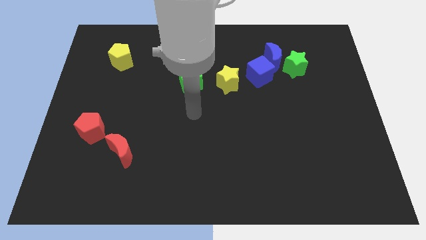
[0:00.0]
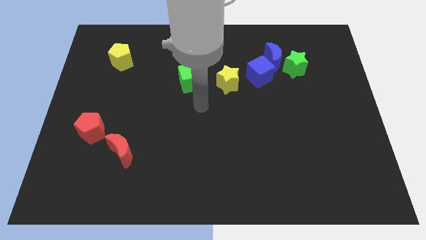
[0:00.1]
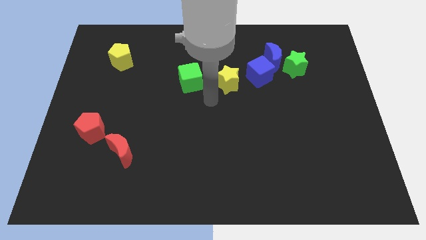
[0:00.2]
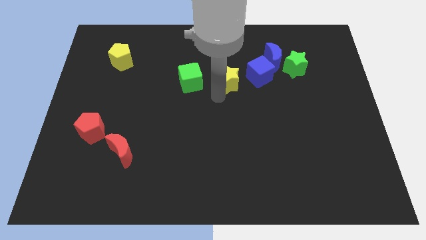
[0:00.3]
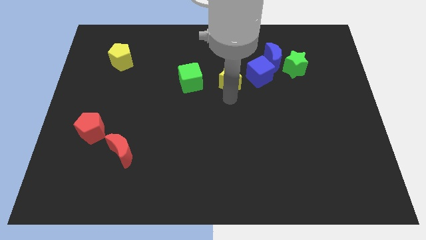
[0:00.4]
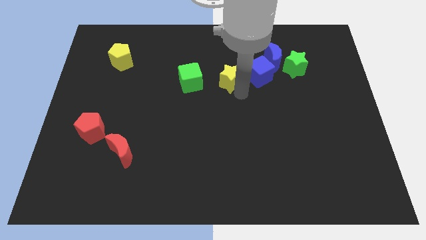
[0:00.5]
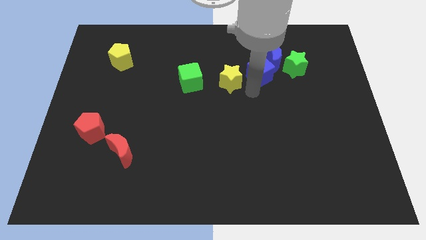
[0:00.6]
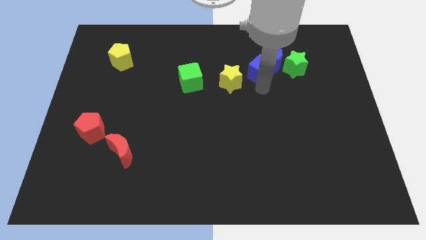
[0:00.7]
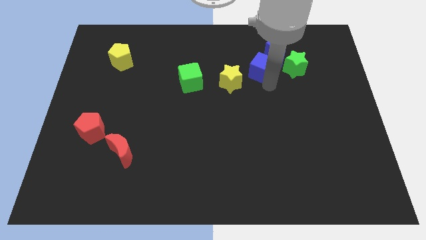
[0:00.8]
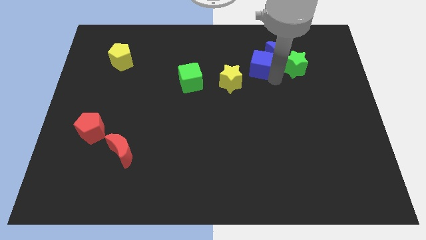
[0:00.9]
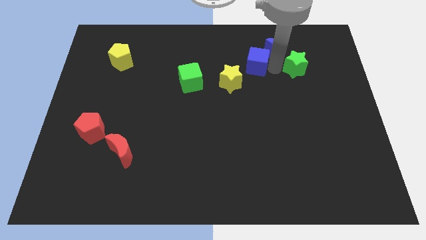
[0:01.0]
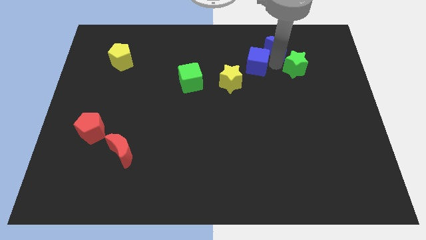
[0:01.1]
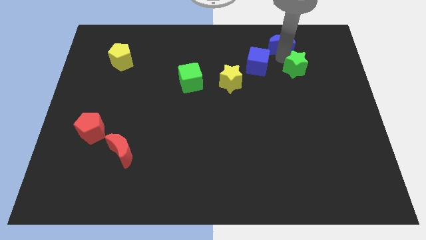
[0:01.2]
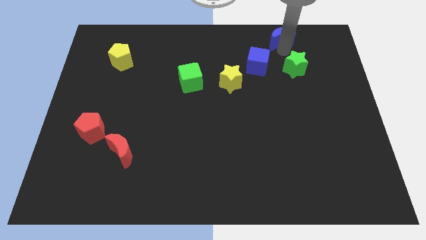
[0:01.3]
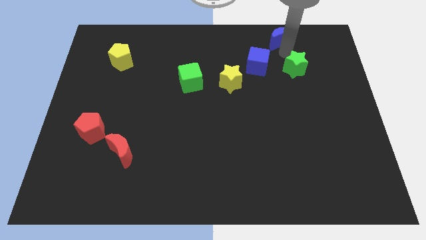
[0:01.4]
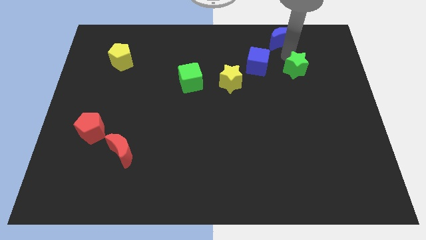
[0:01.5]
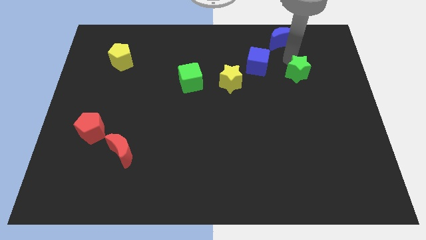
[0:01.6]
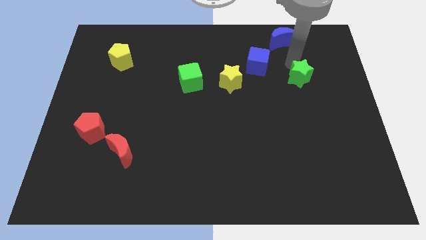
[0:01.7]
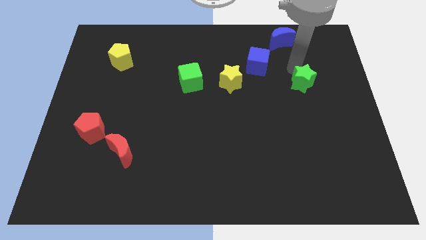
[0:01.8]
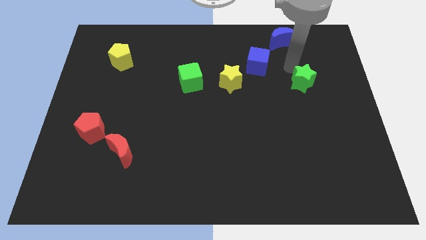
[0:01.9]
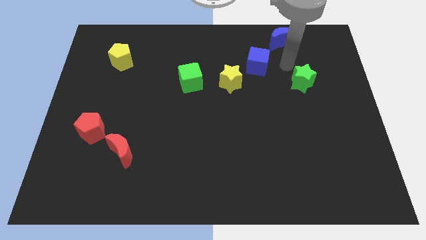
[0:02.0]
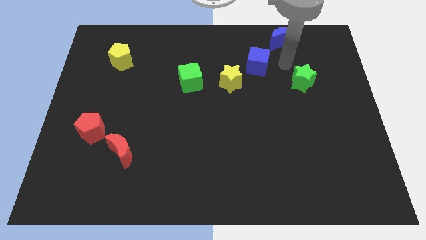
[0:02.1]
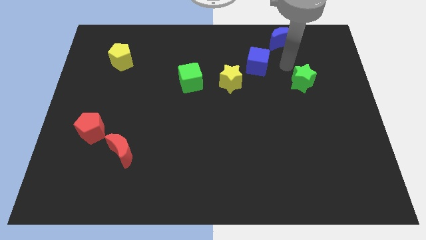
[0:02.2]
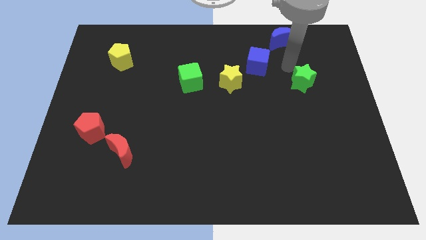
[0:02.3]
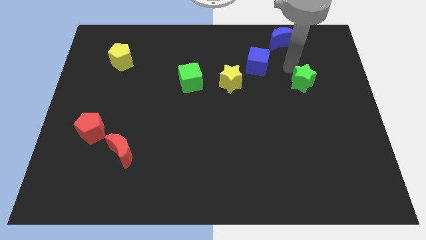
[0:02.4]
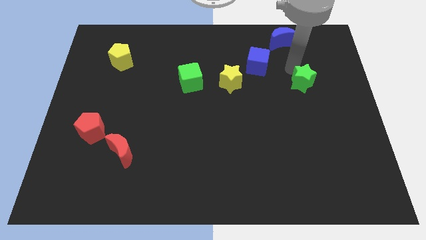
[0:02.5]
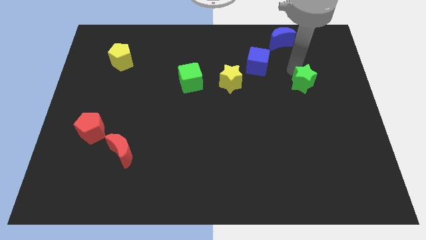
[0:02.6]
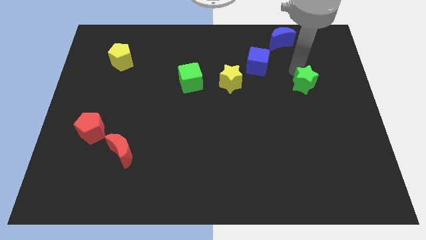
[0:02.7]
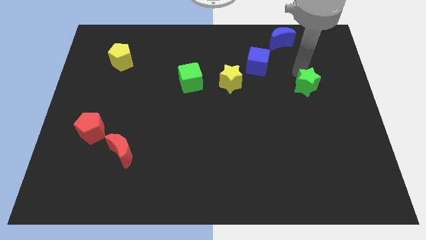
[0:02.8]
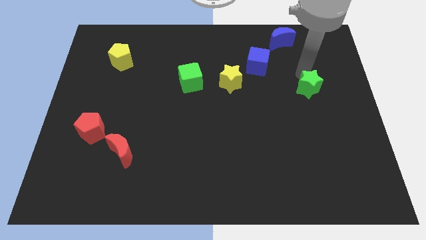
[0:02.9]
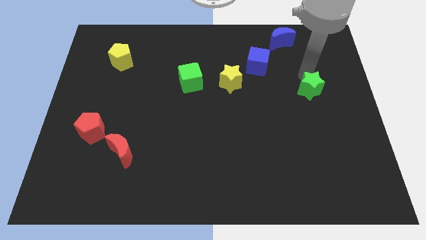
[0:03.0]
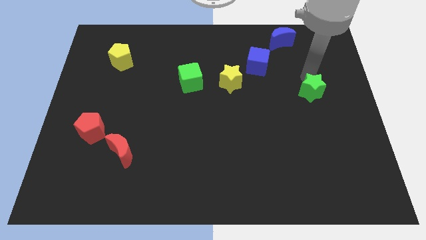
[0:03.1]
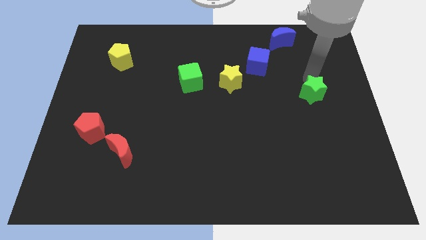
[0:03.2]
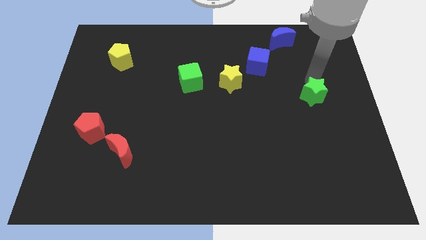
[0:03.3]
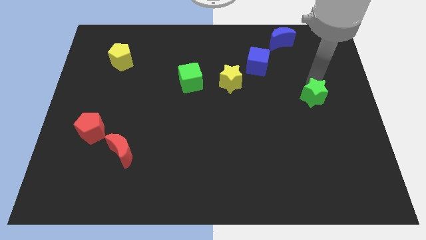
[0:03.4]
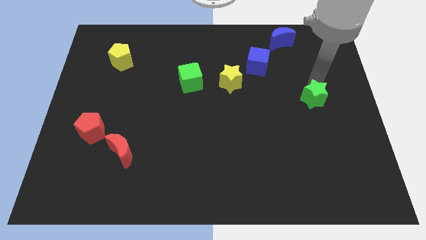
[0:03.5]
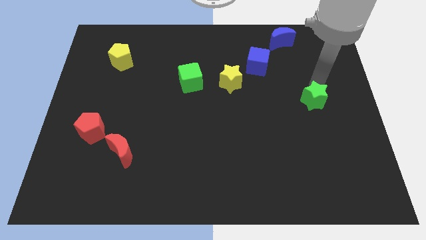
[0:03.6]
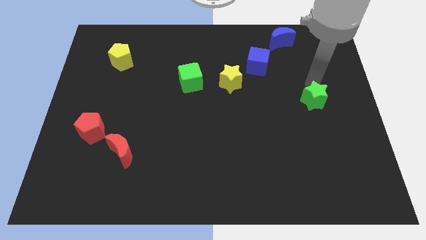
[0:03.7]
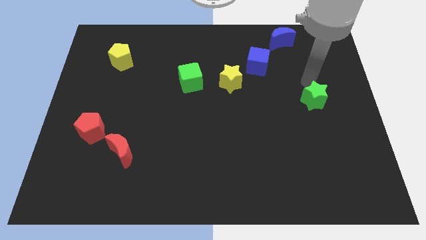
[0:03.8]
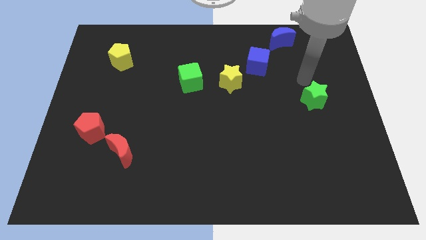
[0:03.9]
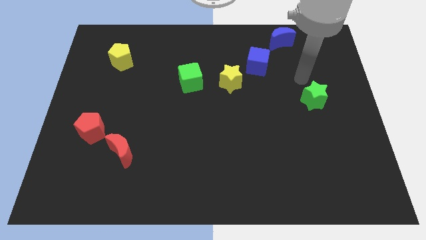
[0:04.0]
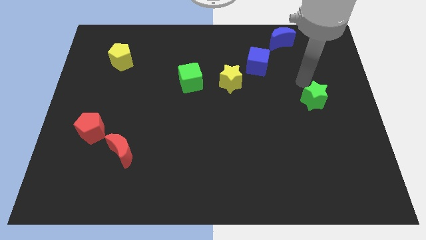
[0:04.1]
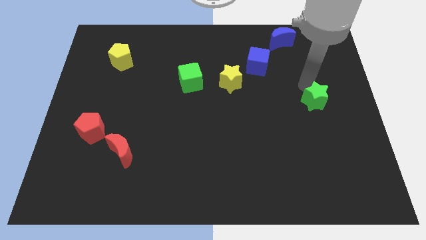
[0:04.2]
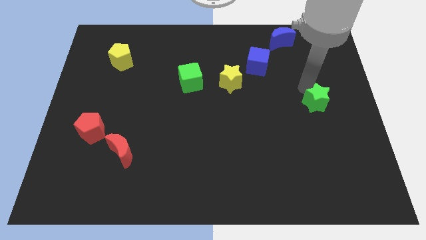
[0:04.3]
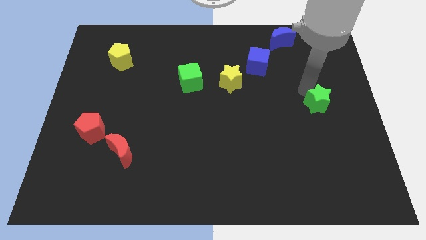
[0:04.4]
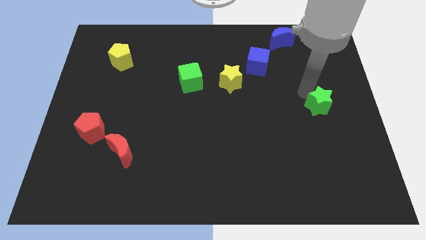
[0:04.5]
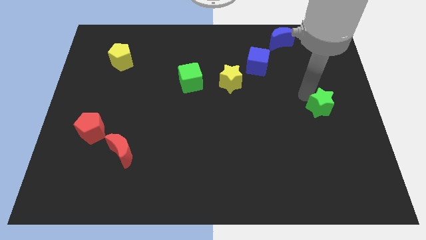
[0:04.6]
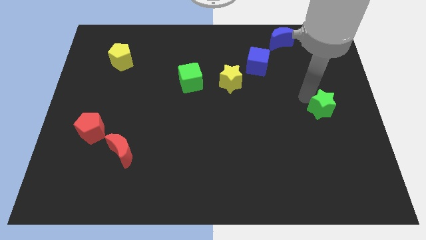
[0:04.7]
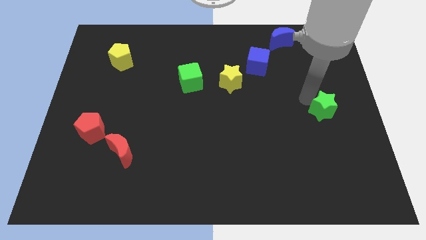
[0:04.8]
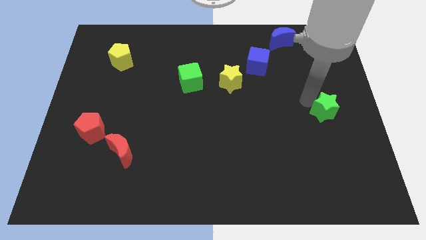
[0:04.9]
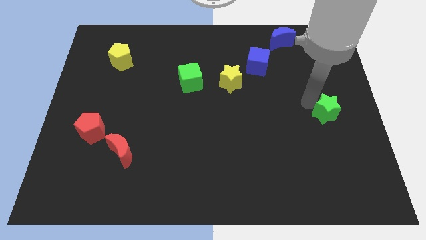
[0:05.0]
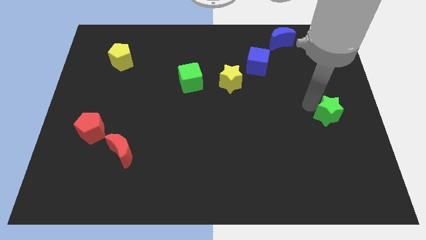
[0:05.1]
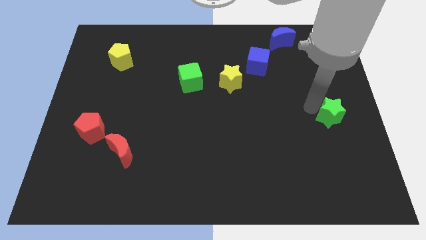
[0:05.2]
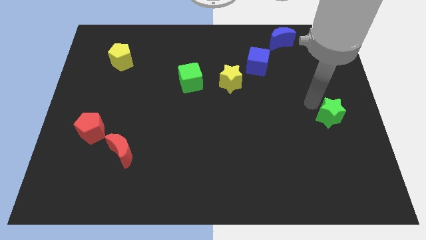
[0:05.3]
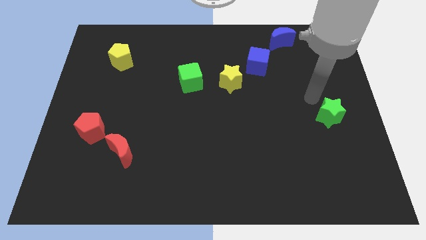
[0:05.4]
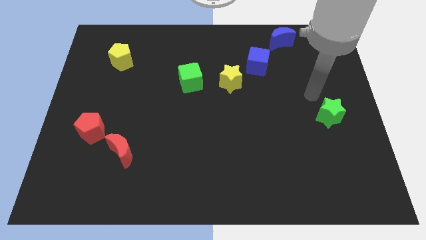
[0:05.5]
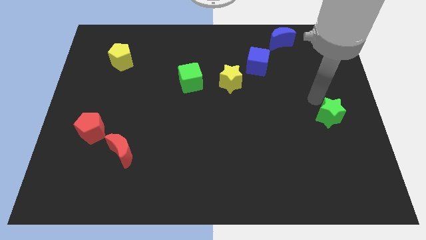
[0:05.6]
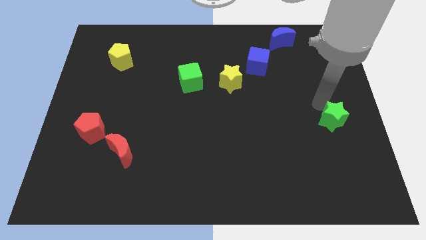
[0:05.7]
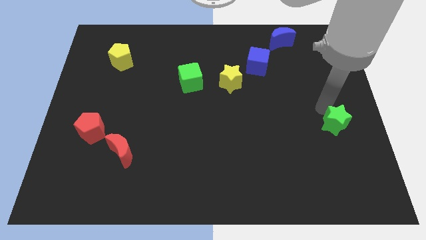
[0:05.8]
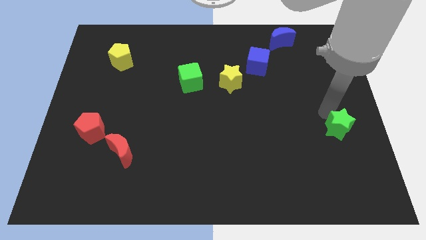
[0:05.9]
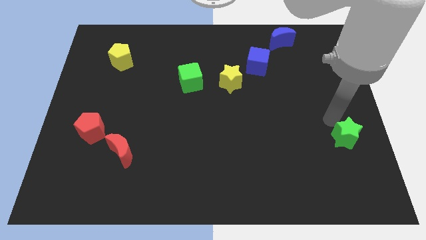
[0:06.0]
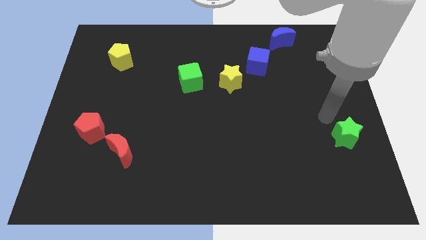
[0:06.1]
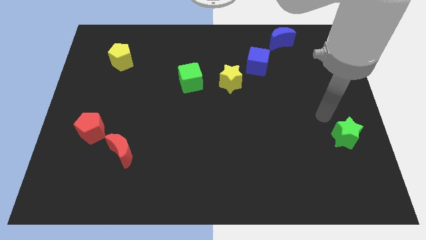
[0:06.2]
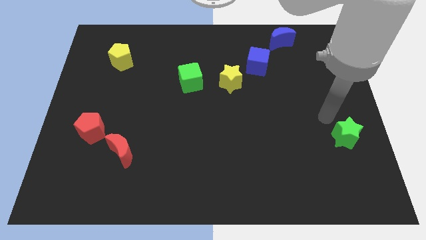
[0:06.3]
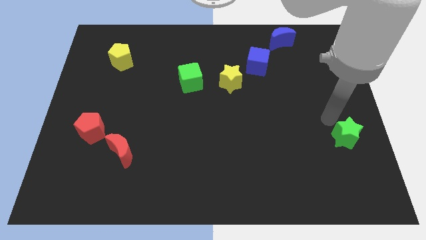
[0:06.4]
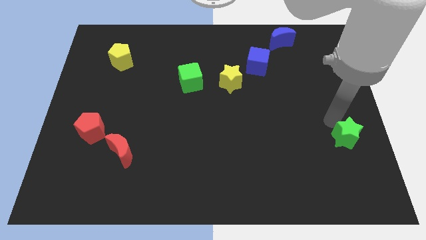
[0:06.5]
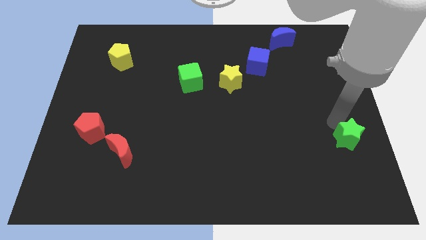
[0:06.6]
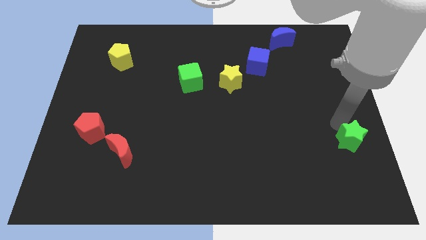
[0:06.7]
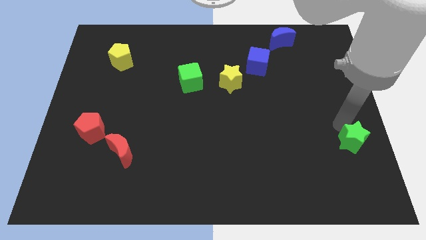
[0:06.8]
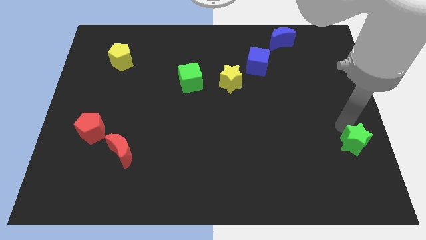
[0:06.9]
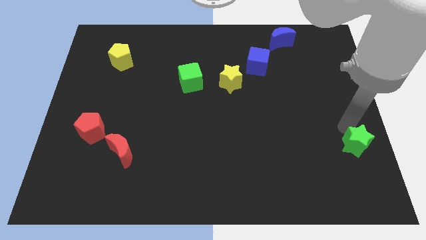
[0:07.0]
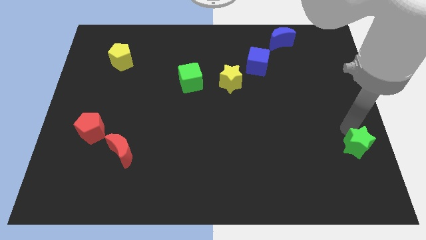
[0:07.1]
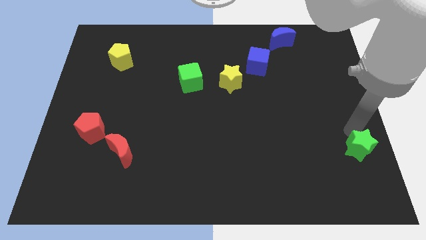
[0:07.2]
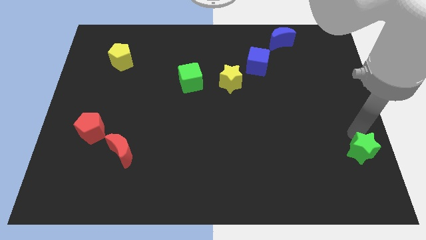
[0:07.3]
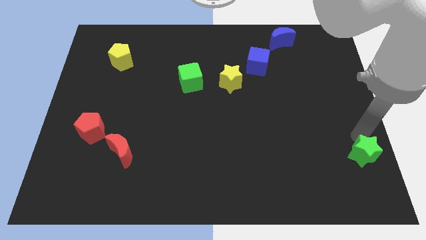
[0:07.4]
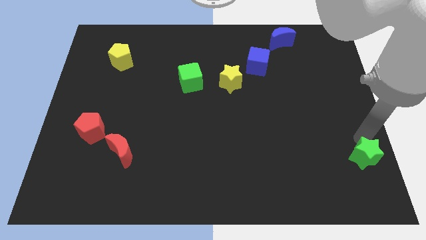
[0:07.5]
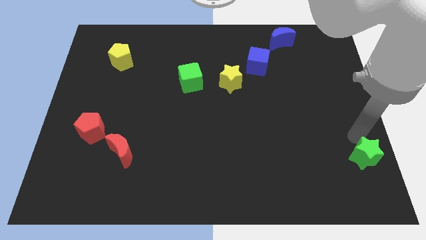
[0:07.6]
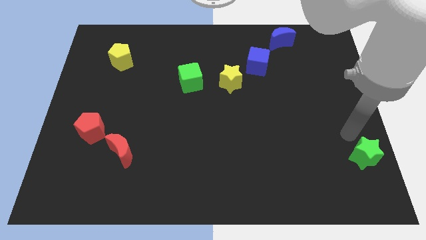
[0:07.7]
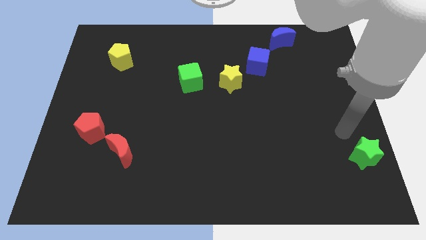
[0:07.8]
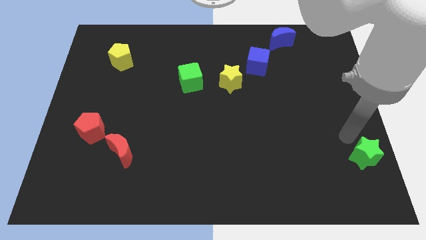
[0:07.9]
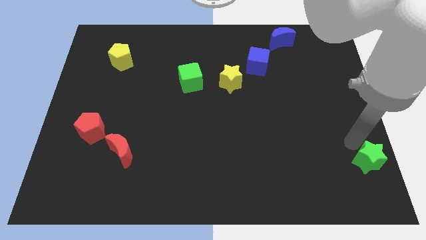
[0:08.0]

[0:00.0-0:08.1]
put the green star to the bottom right corner
